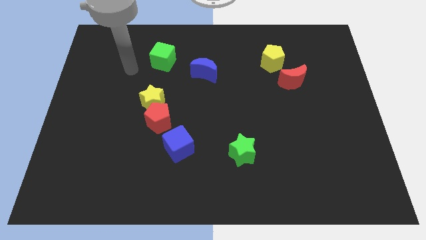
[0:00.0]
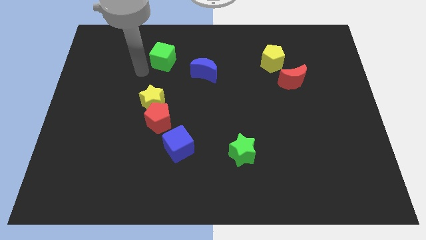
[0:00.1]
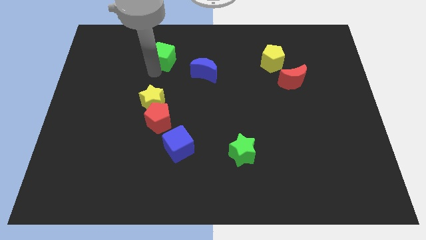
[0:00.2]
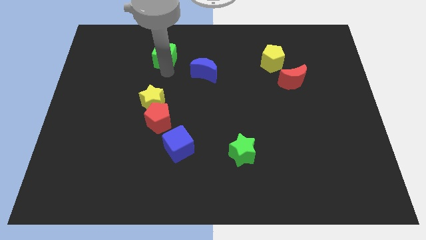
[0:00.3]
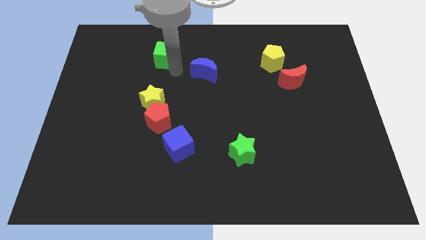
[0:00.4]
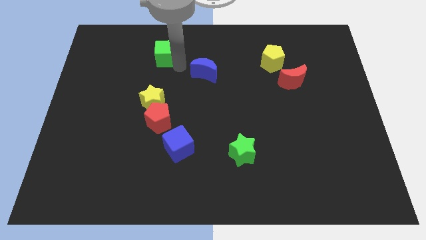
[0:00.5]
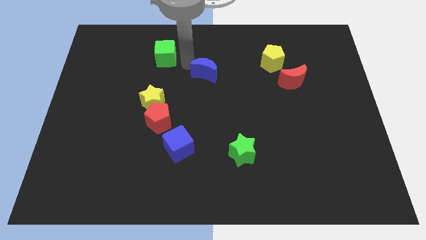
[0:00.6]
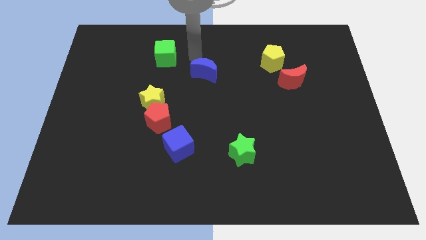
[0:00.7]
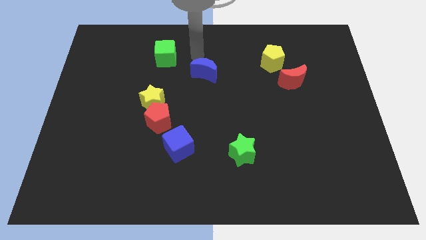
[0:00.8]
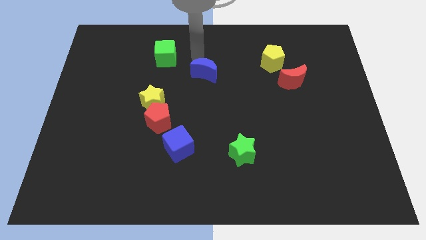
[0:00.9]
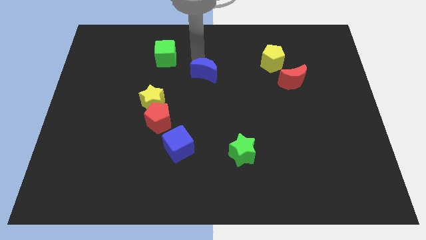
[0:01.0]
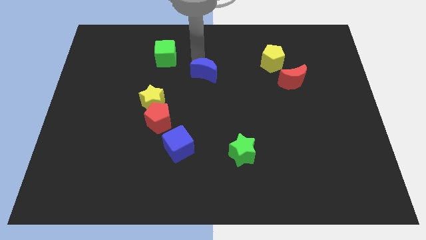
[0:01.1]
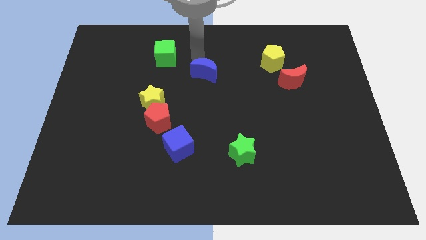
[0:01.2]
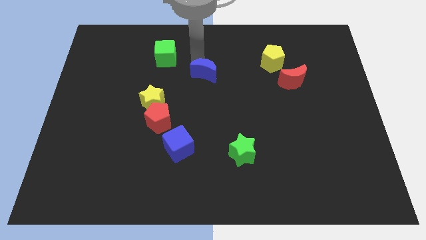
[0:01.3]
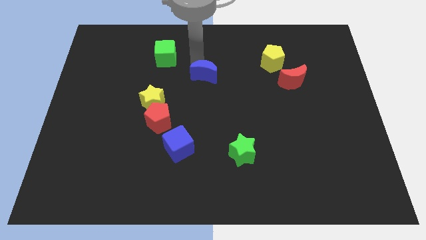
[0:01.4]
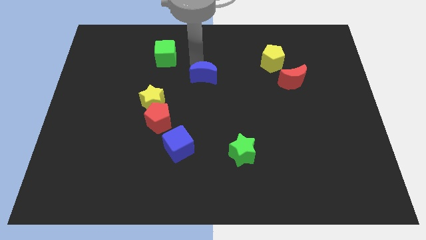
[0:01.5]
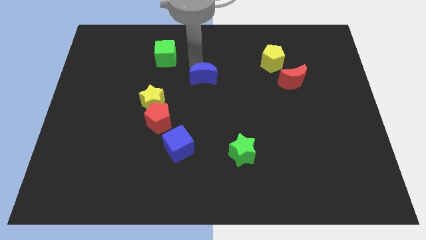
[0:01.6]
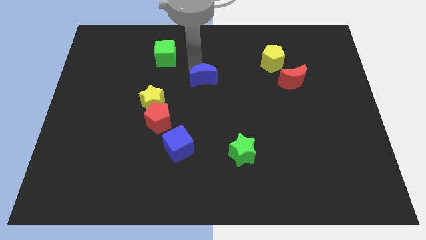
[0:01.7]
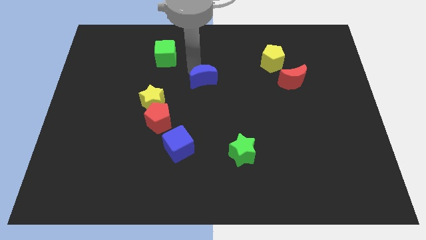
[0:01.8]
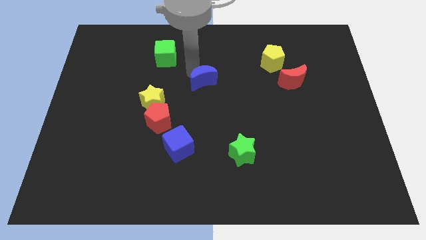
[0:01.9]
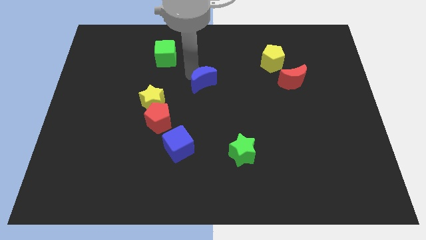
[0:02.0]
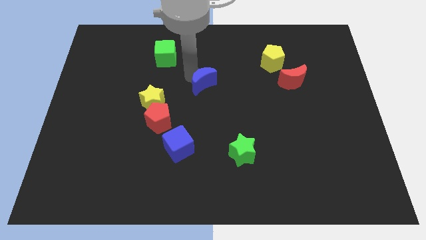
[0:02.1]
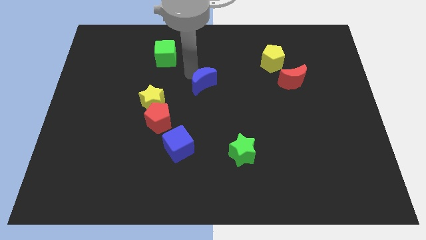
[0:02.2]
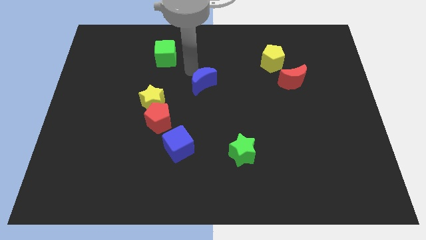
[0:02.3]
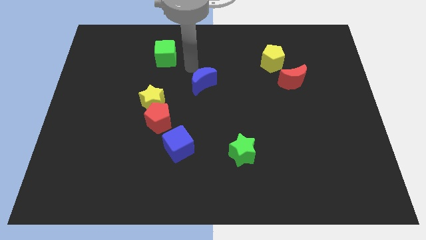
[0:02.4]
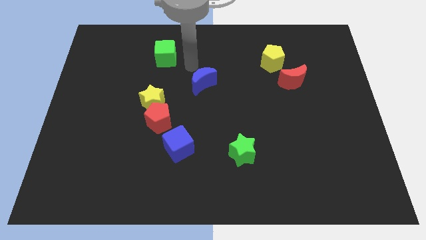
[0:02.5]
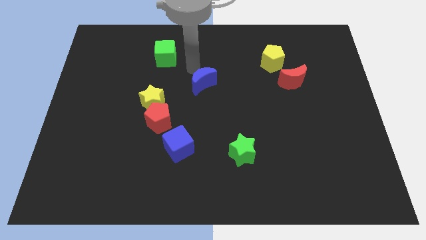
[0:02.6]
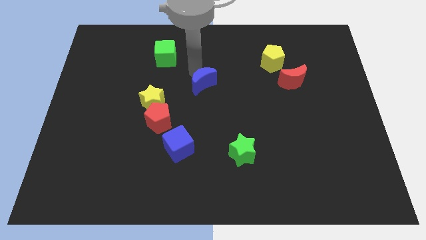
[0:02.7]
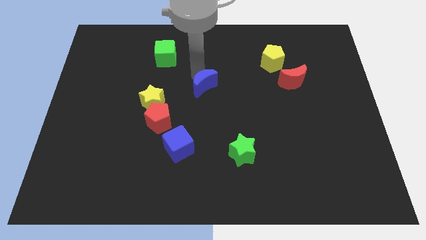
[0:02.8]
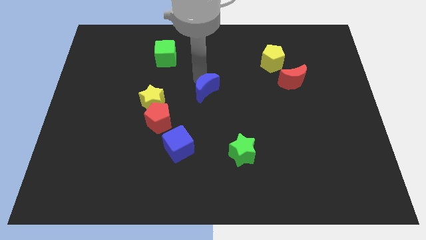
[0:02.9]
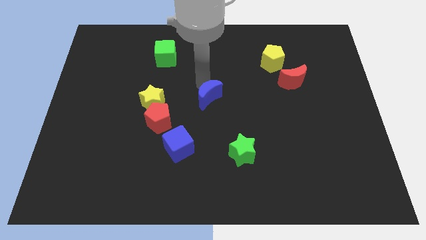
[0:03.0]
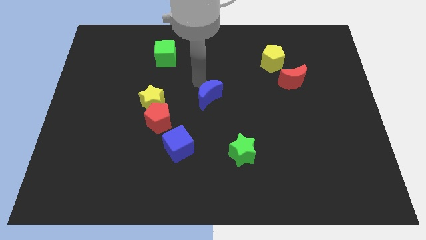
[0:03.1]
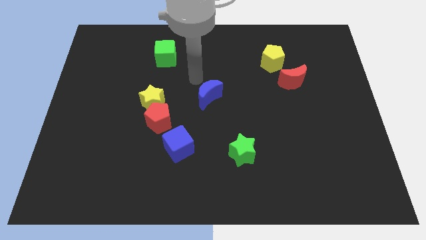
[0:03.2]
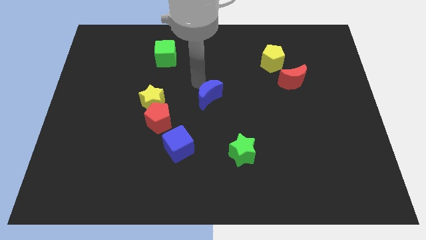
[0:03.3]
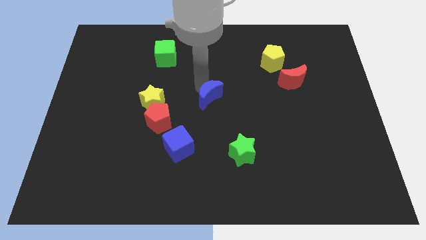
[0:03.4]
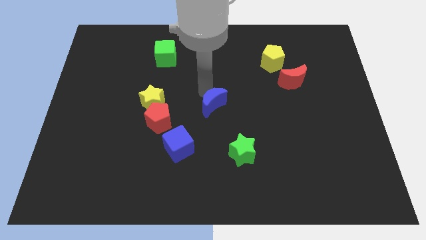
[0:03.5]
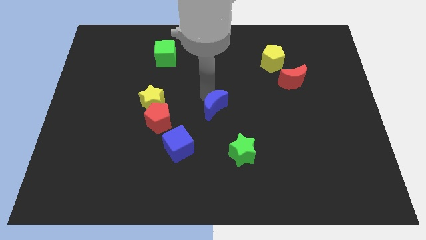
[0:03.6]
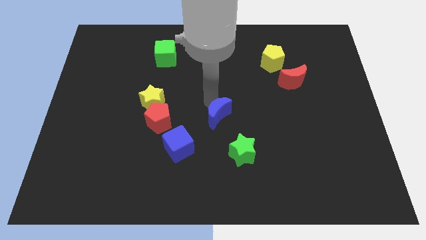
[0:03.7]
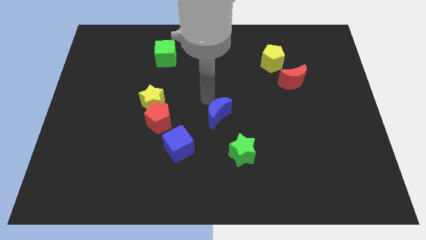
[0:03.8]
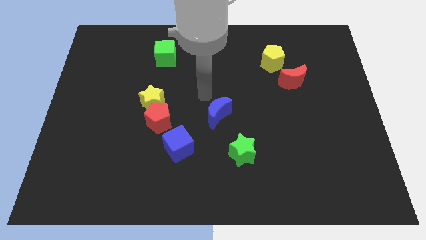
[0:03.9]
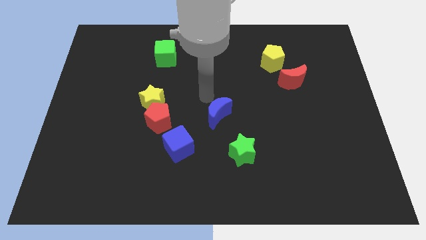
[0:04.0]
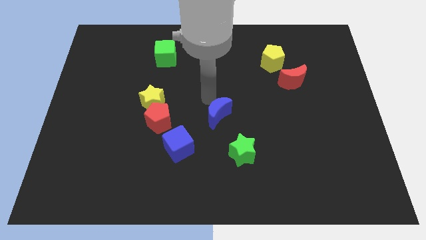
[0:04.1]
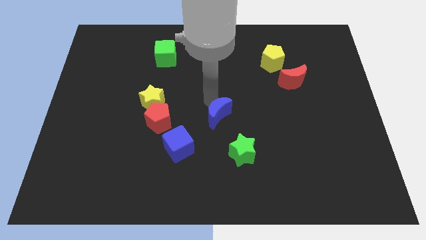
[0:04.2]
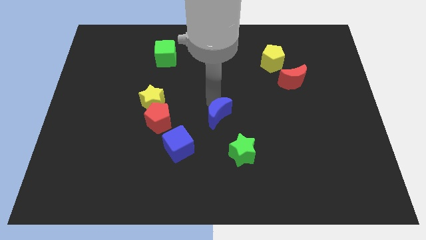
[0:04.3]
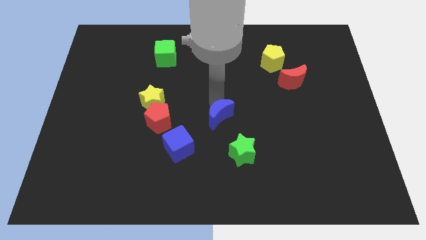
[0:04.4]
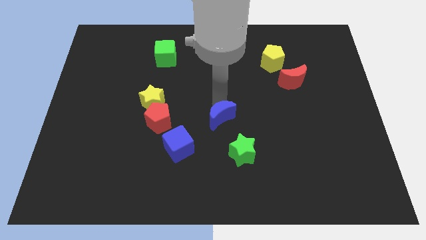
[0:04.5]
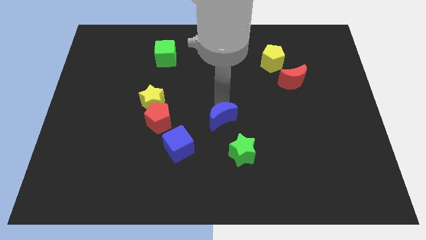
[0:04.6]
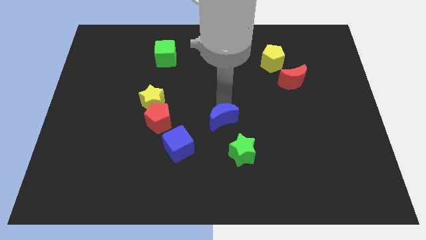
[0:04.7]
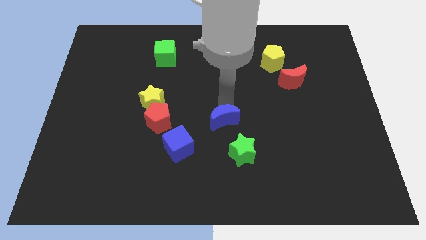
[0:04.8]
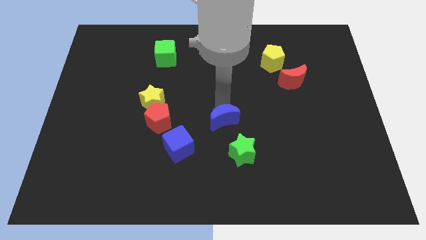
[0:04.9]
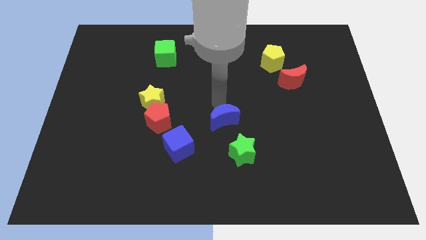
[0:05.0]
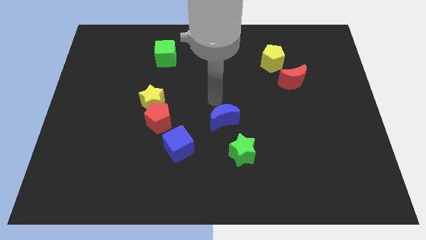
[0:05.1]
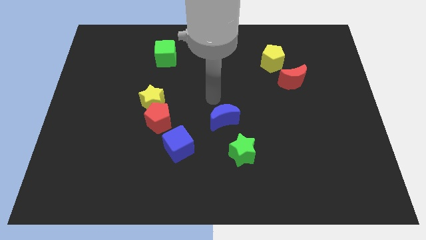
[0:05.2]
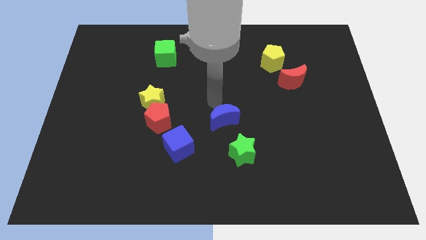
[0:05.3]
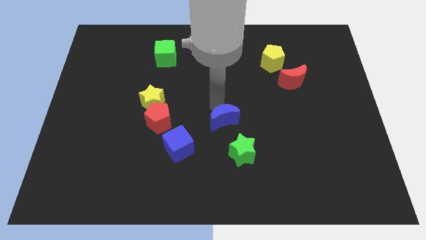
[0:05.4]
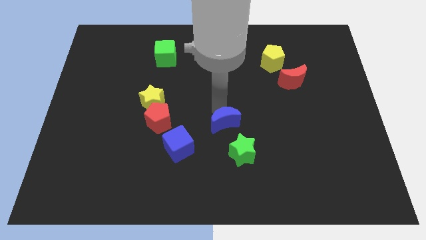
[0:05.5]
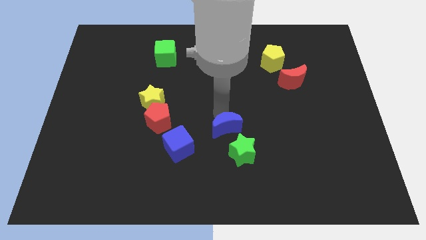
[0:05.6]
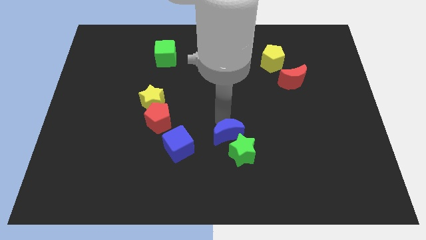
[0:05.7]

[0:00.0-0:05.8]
move the blue moon close to the green star

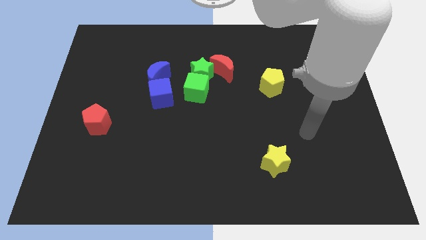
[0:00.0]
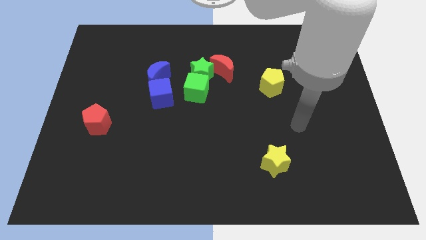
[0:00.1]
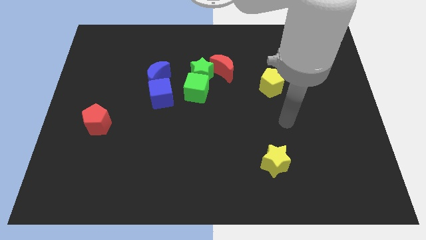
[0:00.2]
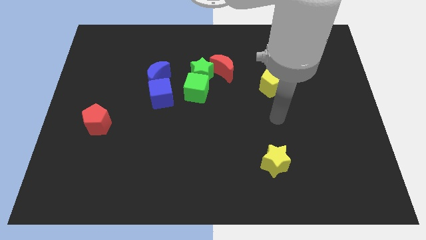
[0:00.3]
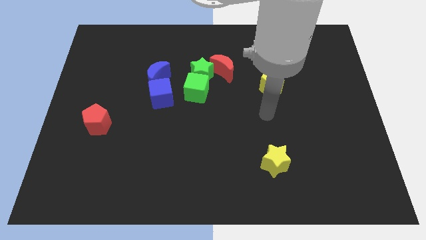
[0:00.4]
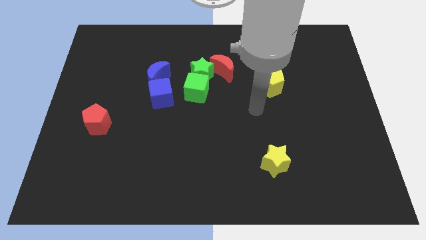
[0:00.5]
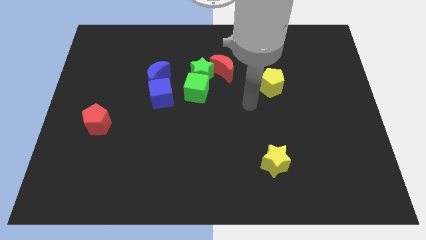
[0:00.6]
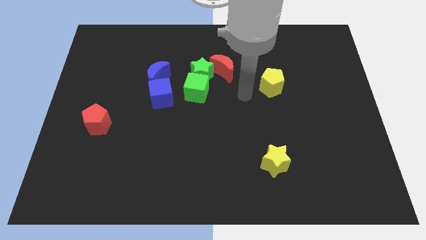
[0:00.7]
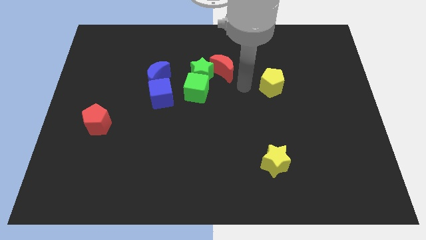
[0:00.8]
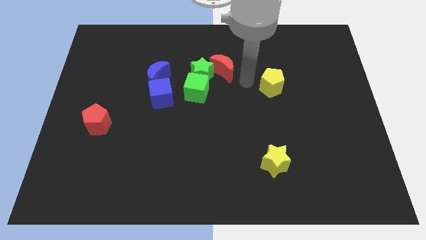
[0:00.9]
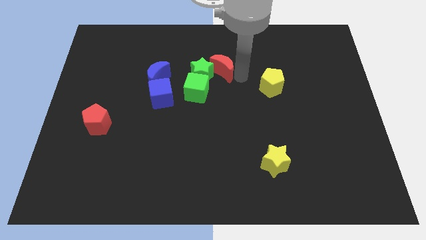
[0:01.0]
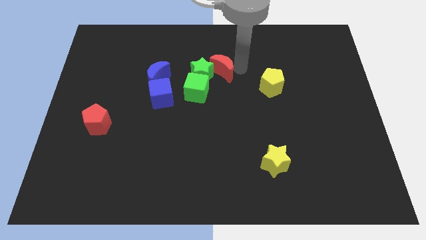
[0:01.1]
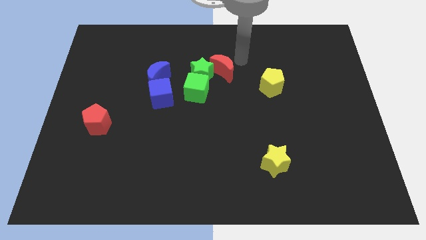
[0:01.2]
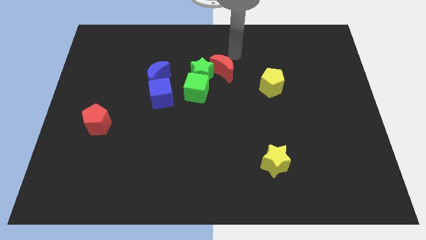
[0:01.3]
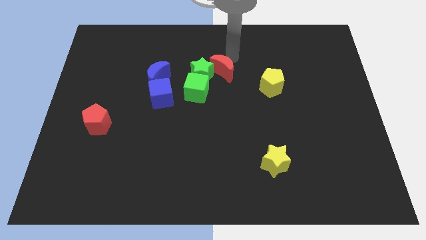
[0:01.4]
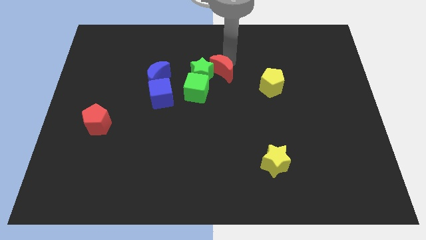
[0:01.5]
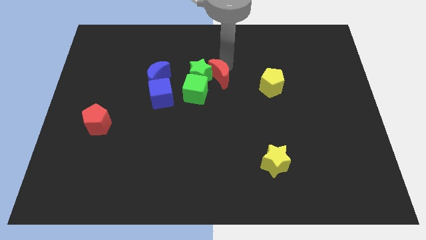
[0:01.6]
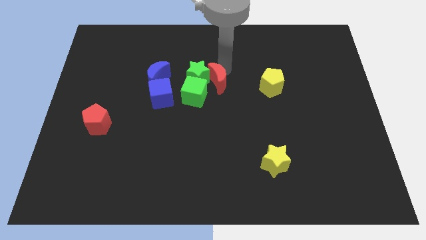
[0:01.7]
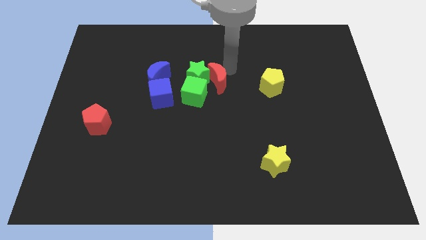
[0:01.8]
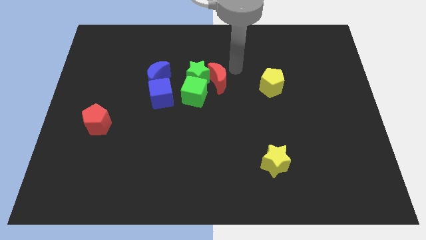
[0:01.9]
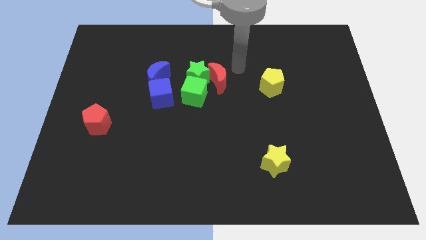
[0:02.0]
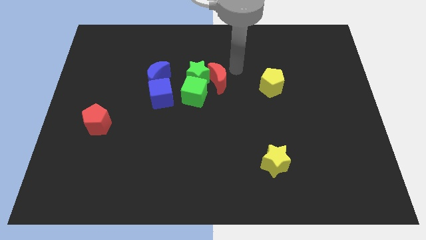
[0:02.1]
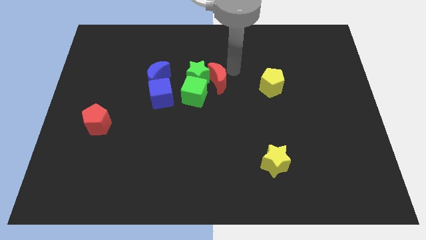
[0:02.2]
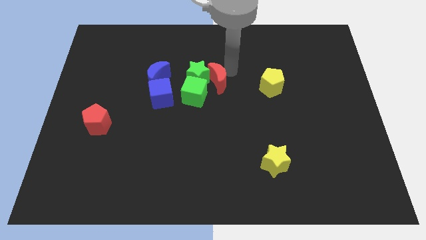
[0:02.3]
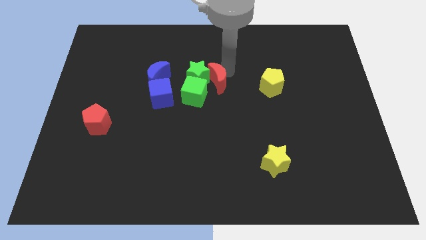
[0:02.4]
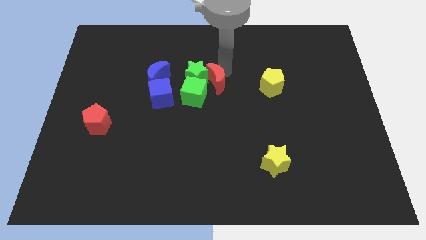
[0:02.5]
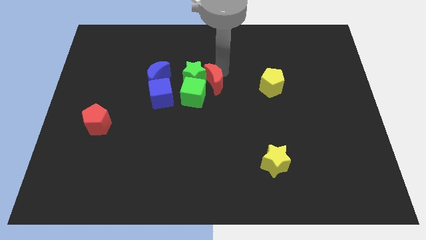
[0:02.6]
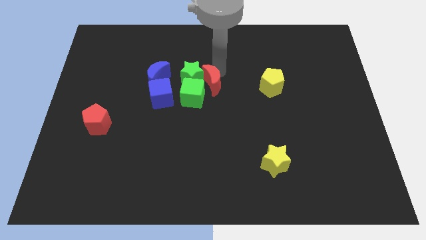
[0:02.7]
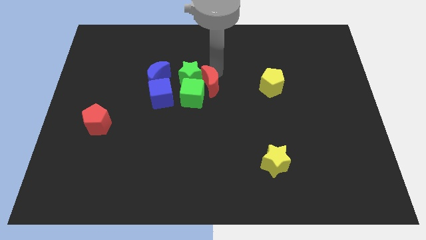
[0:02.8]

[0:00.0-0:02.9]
move the red moon close to the green cube
